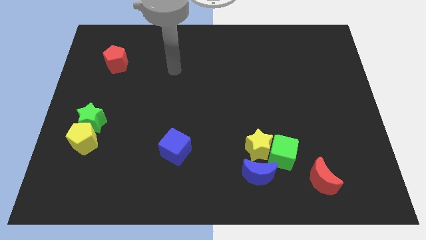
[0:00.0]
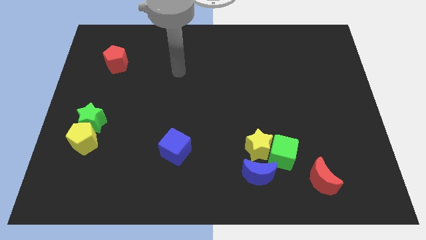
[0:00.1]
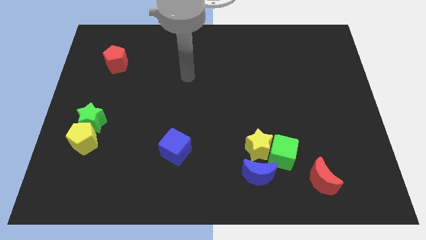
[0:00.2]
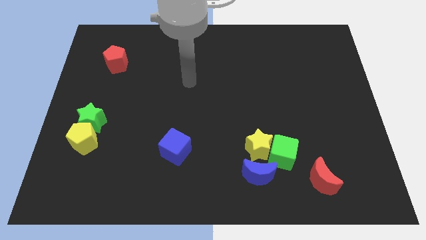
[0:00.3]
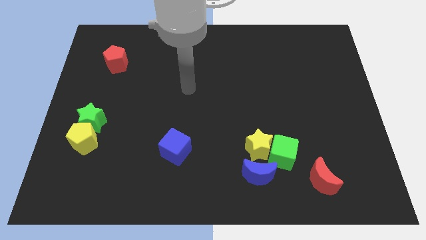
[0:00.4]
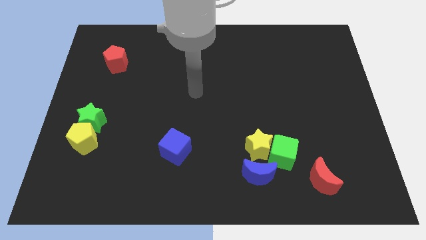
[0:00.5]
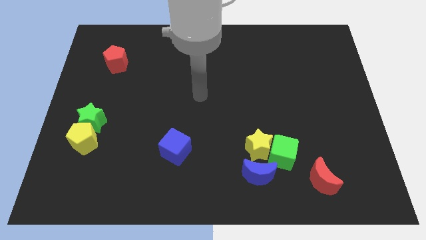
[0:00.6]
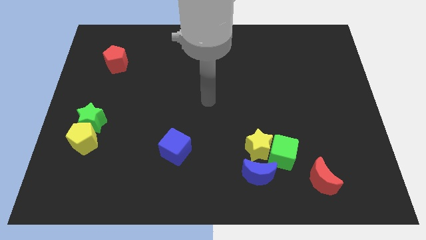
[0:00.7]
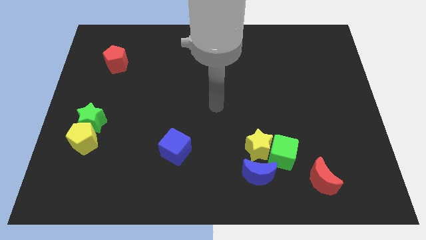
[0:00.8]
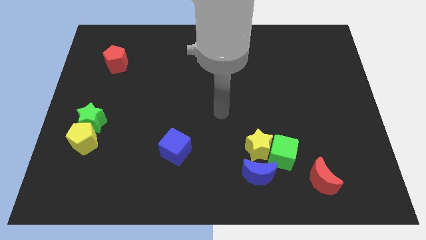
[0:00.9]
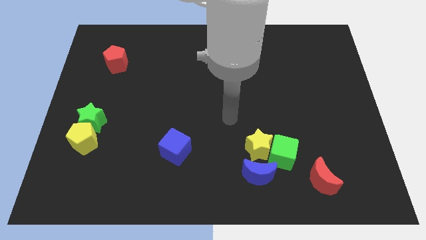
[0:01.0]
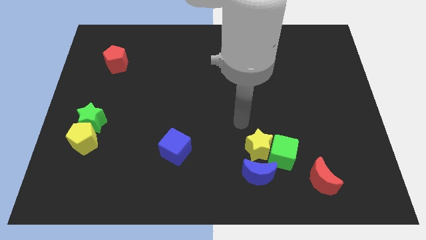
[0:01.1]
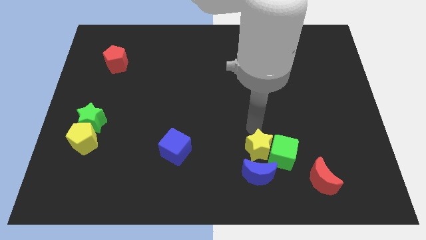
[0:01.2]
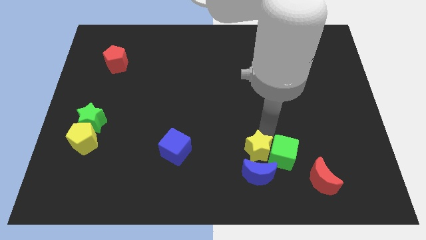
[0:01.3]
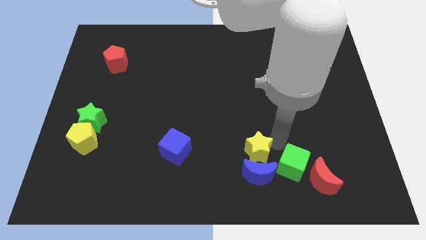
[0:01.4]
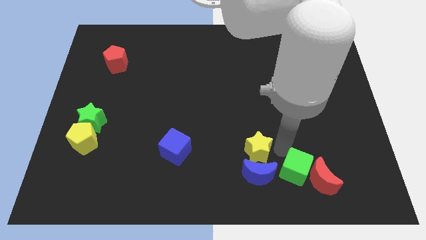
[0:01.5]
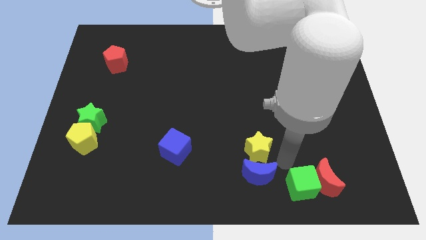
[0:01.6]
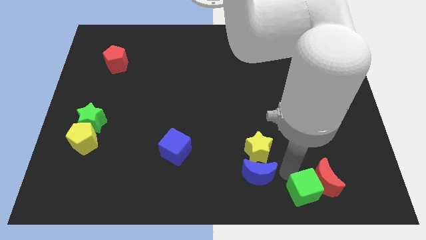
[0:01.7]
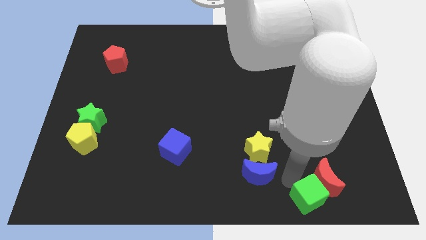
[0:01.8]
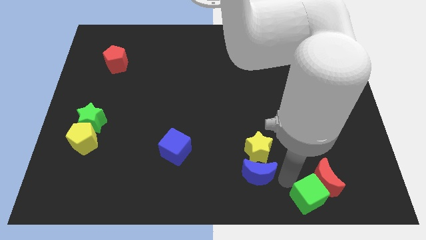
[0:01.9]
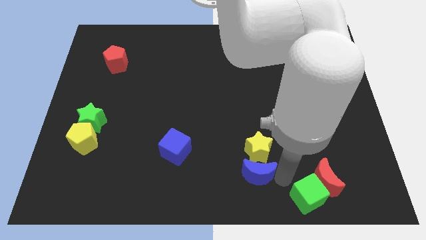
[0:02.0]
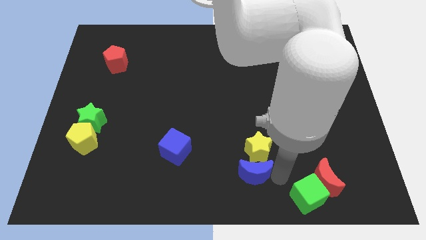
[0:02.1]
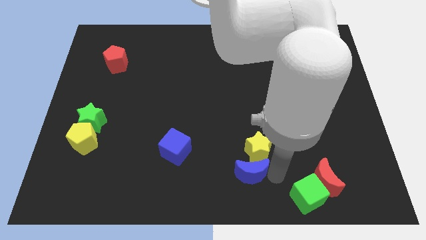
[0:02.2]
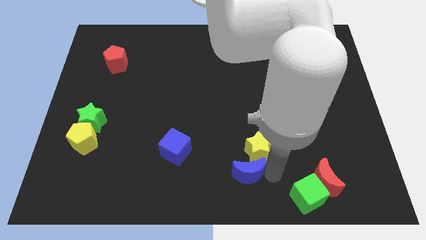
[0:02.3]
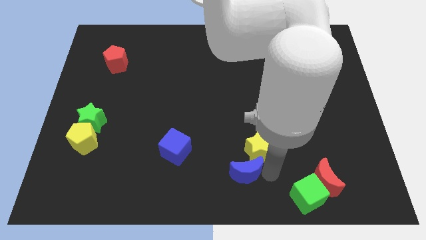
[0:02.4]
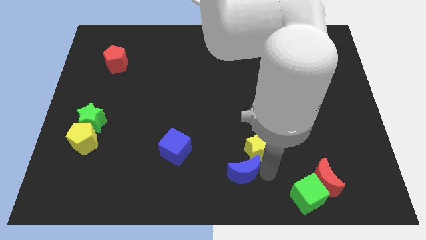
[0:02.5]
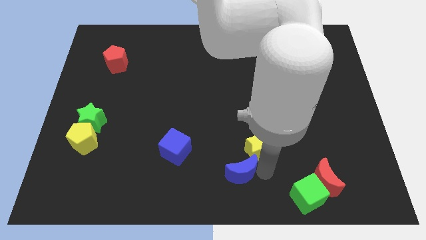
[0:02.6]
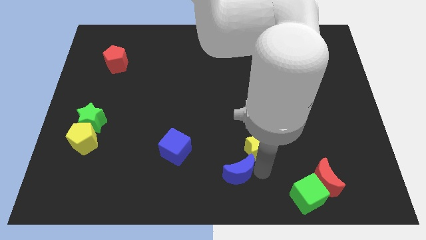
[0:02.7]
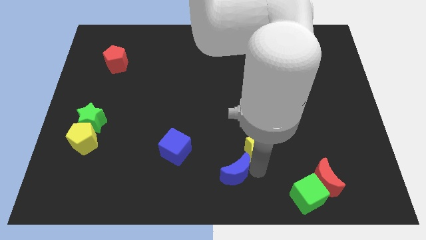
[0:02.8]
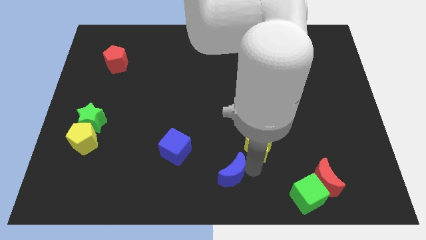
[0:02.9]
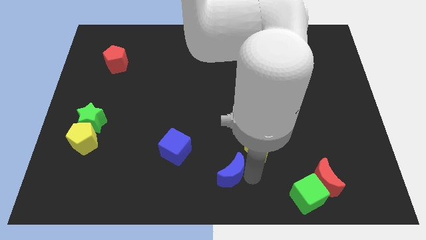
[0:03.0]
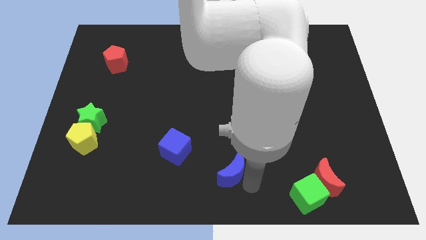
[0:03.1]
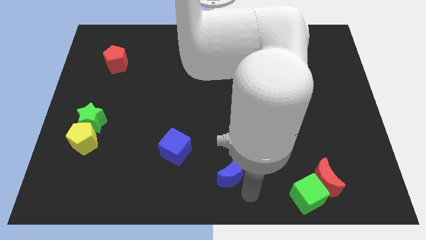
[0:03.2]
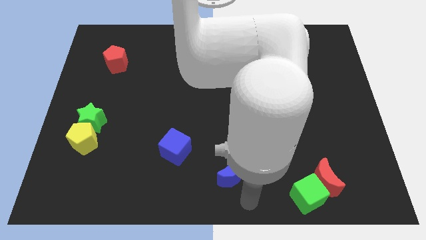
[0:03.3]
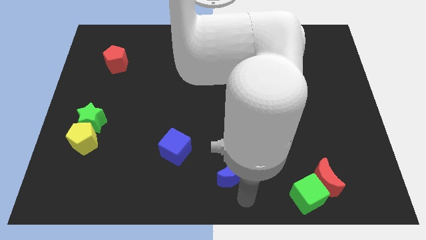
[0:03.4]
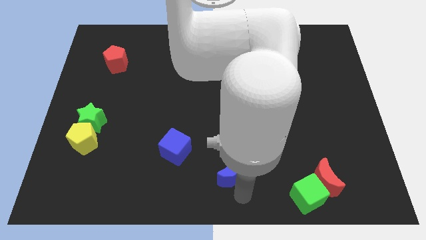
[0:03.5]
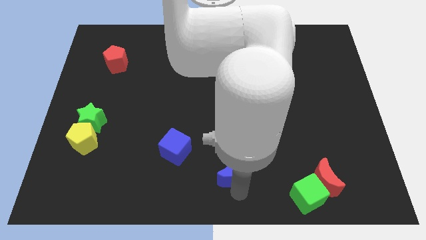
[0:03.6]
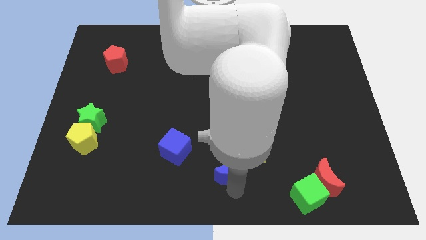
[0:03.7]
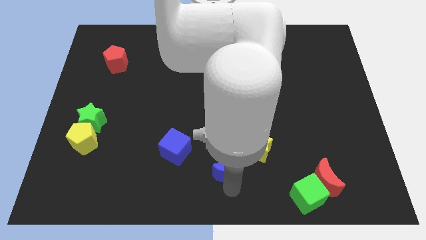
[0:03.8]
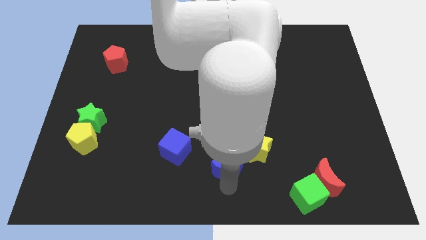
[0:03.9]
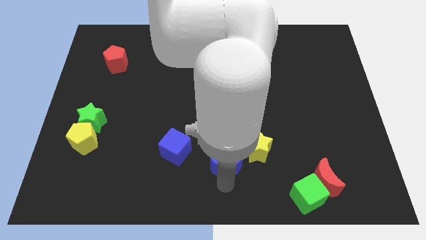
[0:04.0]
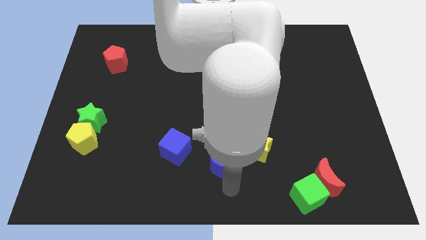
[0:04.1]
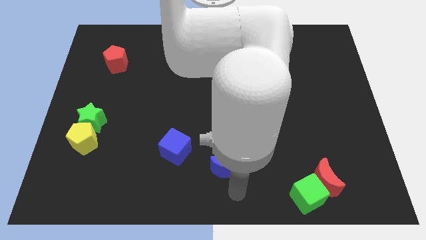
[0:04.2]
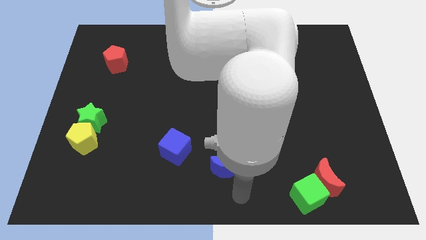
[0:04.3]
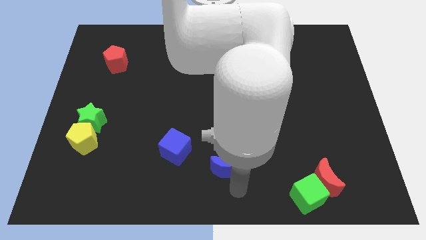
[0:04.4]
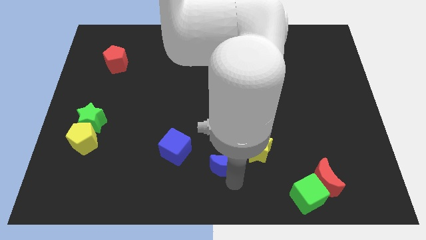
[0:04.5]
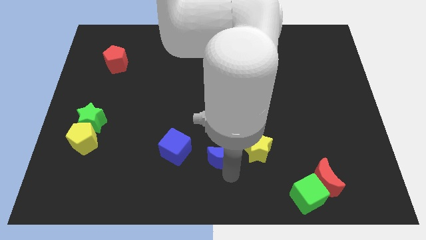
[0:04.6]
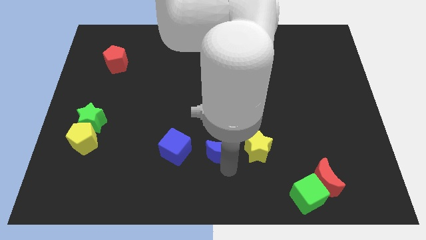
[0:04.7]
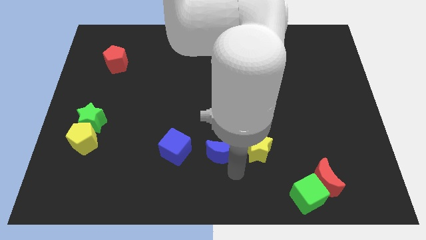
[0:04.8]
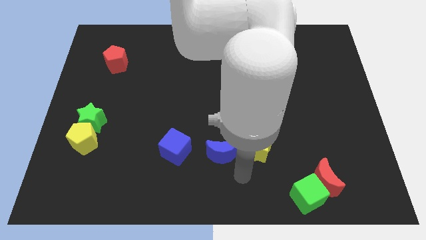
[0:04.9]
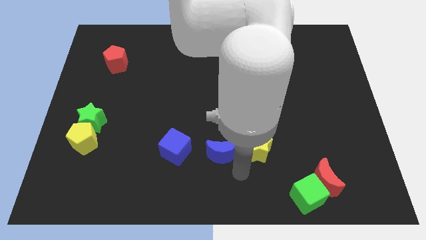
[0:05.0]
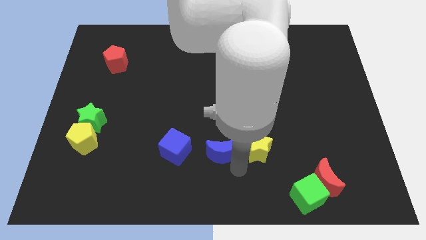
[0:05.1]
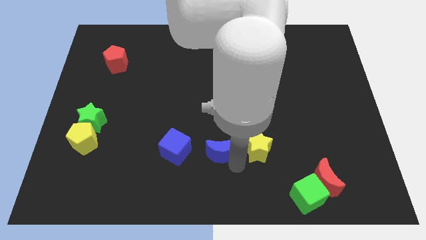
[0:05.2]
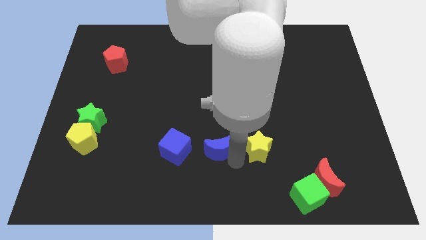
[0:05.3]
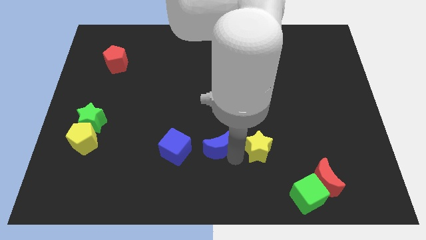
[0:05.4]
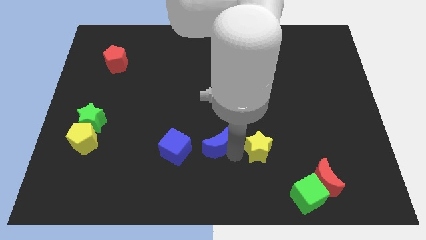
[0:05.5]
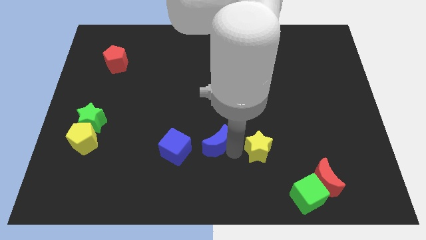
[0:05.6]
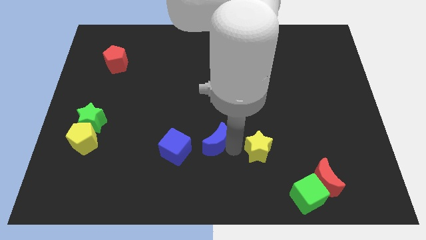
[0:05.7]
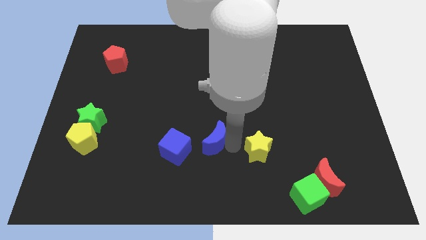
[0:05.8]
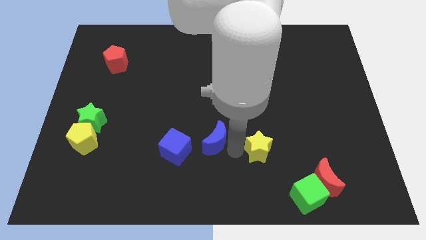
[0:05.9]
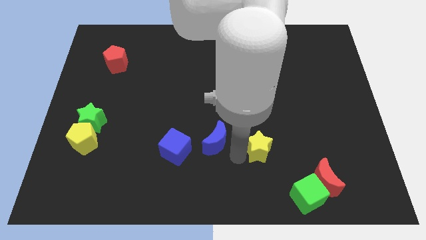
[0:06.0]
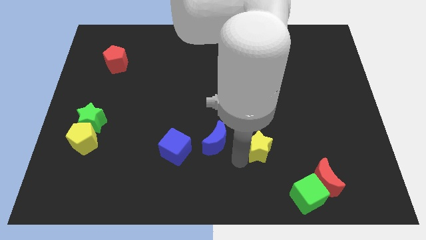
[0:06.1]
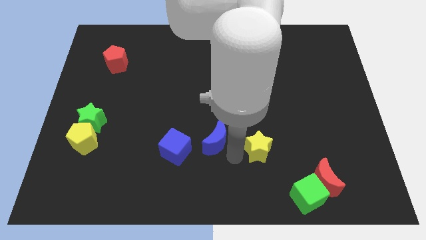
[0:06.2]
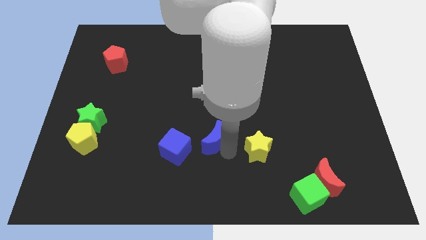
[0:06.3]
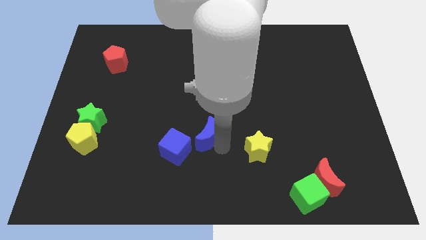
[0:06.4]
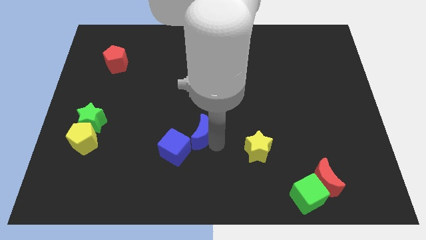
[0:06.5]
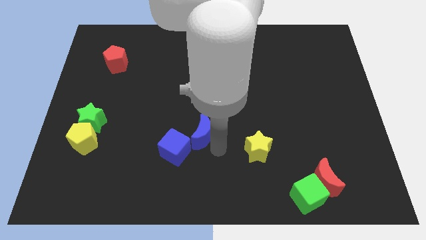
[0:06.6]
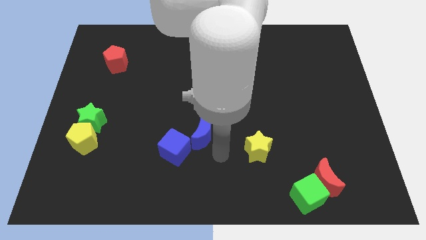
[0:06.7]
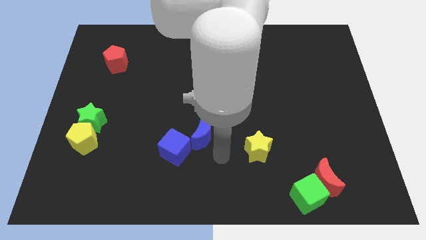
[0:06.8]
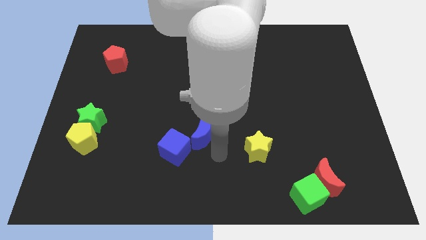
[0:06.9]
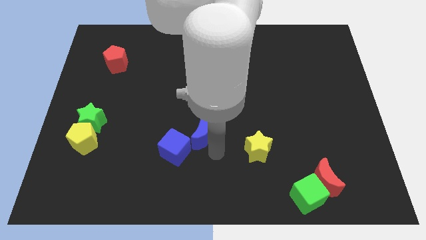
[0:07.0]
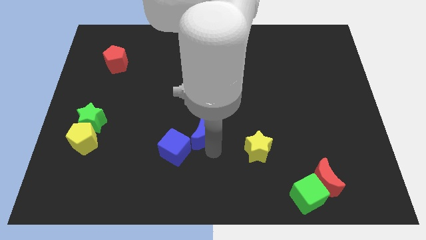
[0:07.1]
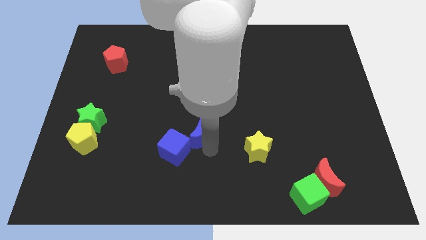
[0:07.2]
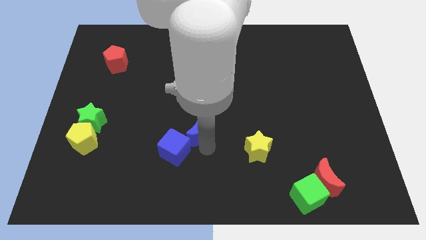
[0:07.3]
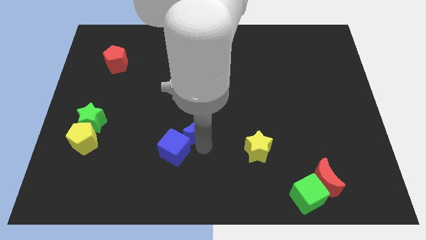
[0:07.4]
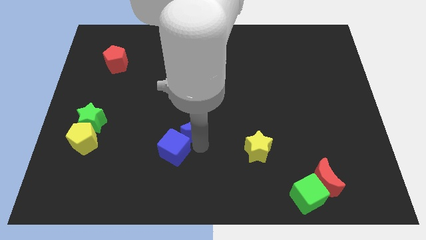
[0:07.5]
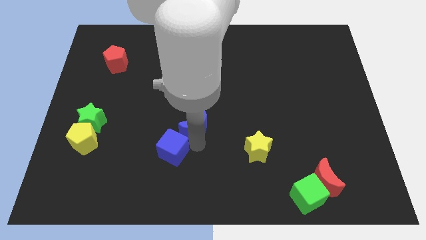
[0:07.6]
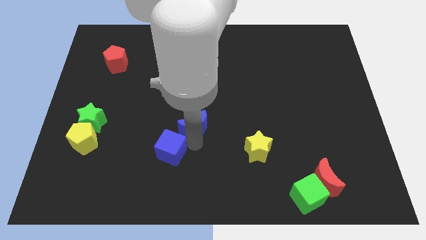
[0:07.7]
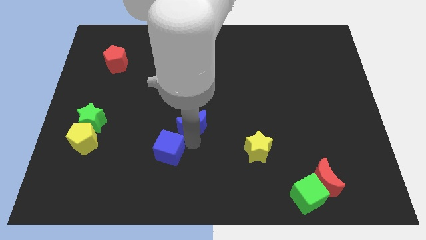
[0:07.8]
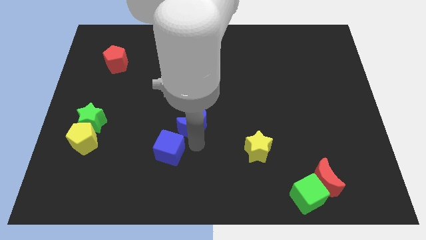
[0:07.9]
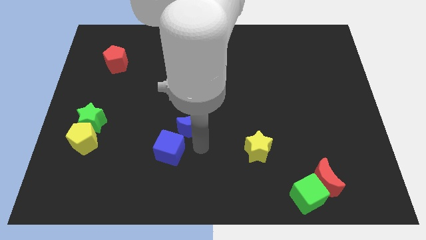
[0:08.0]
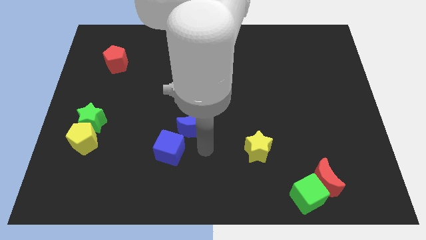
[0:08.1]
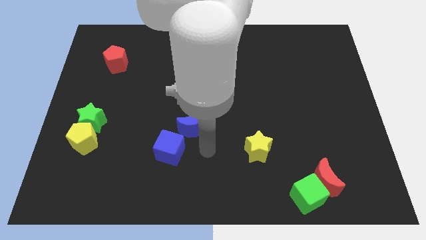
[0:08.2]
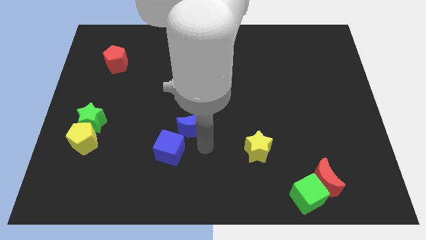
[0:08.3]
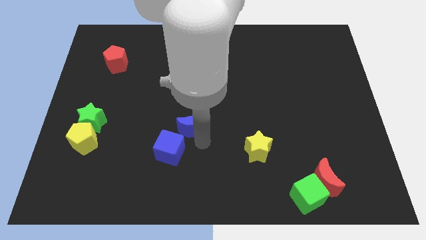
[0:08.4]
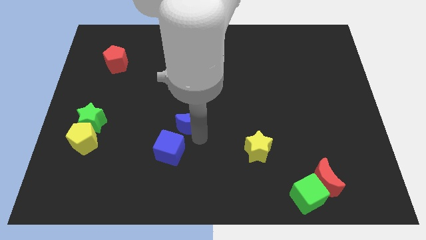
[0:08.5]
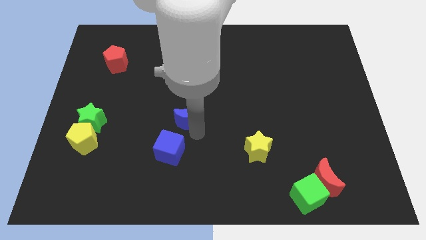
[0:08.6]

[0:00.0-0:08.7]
move the blue moon up and then to the left
